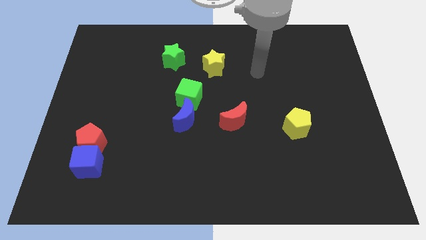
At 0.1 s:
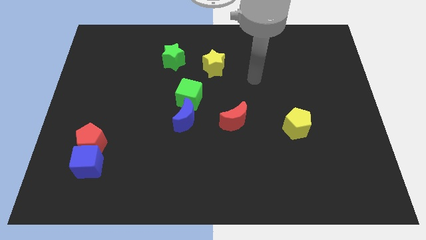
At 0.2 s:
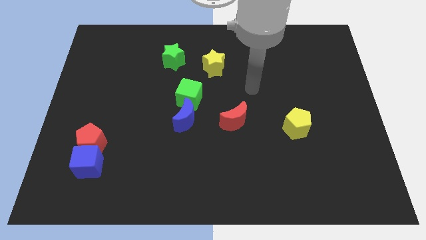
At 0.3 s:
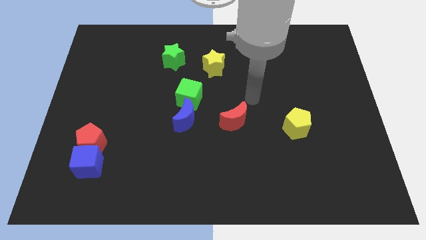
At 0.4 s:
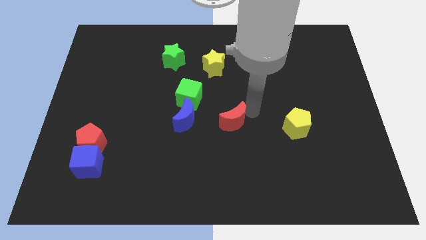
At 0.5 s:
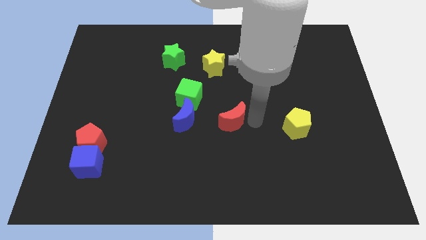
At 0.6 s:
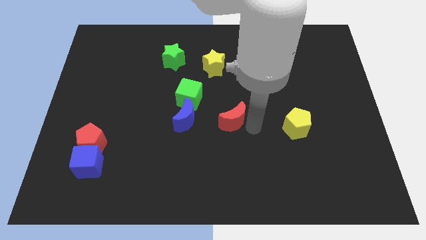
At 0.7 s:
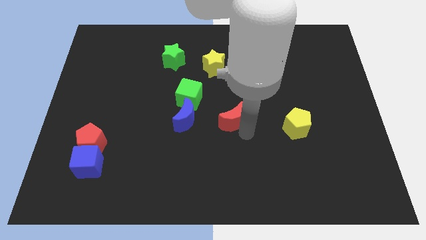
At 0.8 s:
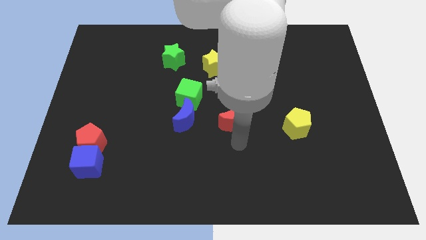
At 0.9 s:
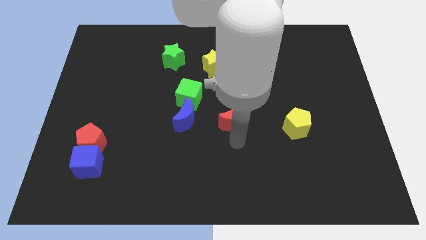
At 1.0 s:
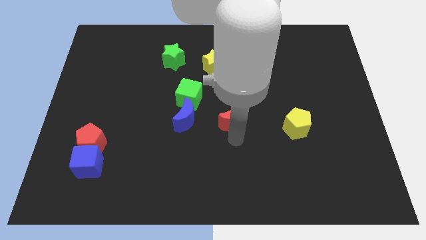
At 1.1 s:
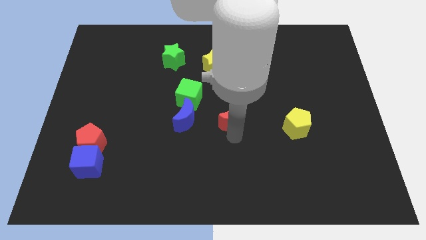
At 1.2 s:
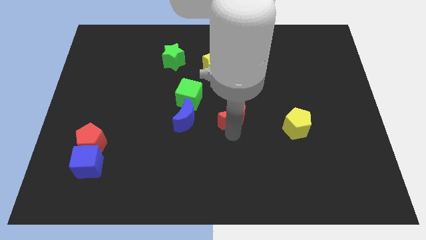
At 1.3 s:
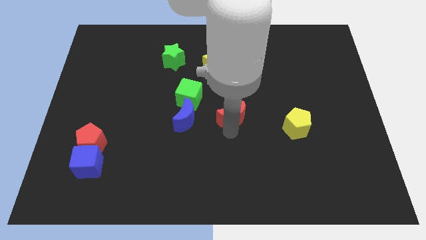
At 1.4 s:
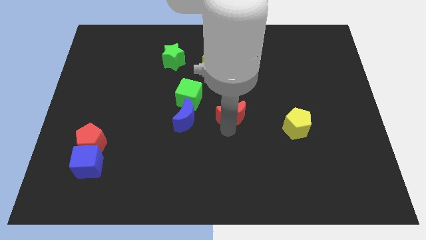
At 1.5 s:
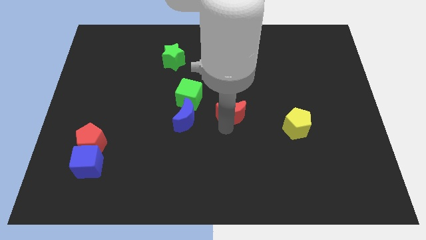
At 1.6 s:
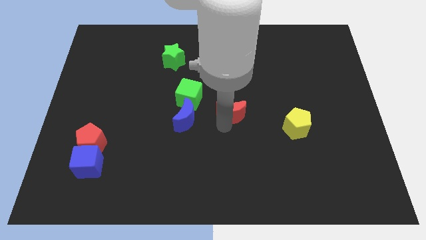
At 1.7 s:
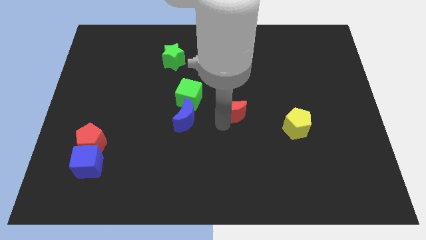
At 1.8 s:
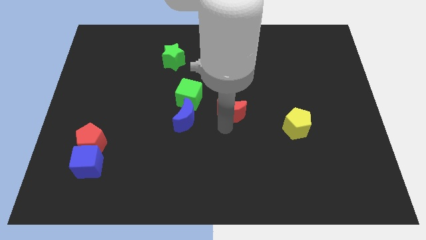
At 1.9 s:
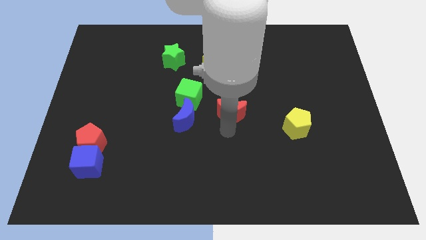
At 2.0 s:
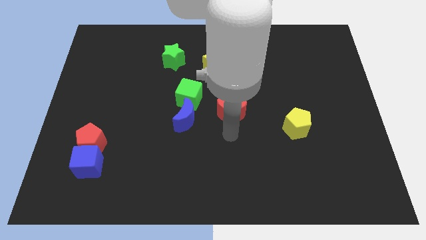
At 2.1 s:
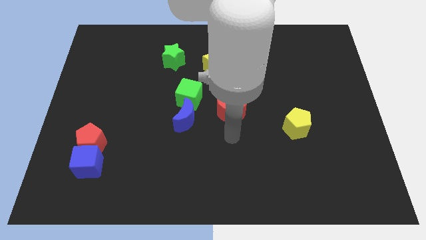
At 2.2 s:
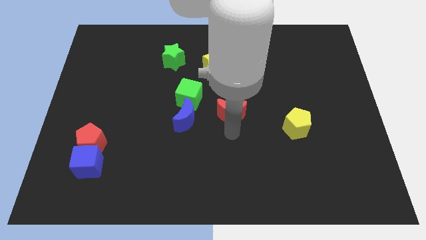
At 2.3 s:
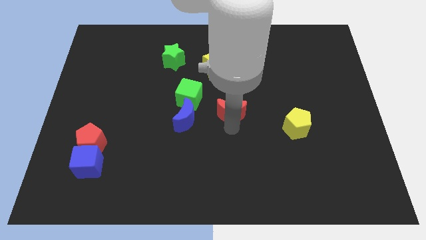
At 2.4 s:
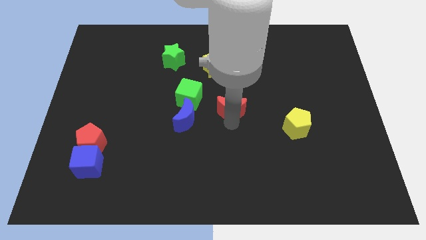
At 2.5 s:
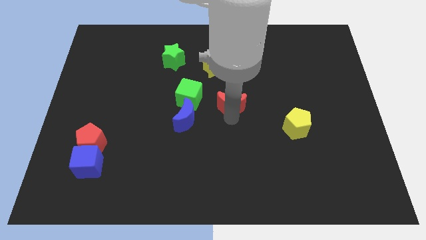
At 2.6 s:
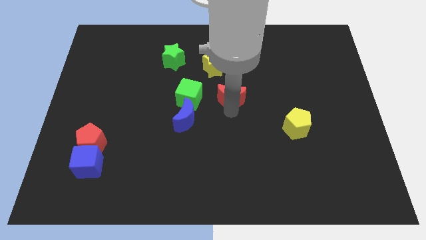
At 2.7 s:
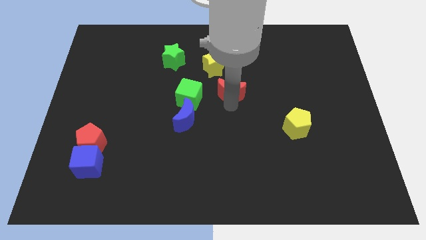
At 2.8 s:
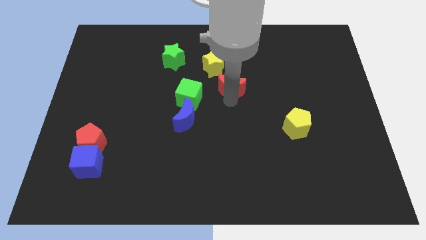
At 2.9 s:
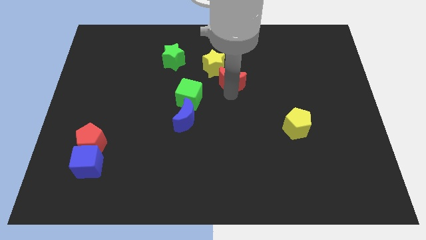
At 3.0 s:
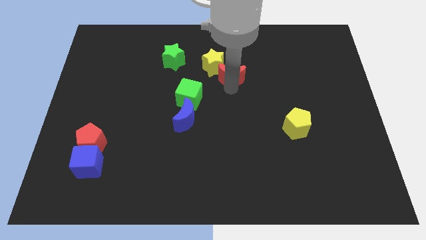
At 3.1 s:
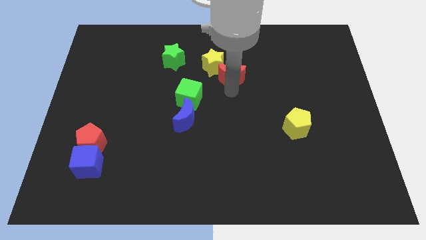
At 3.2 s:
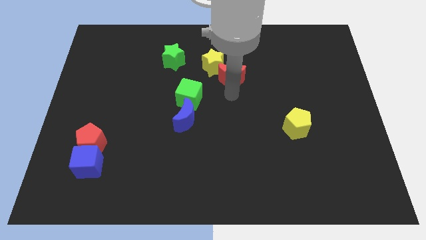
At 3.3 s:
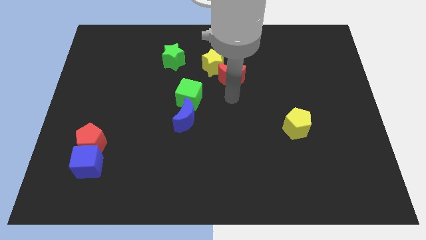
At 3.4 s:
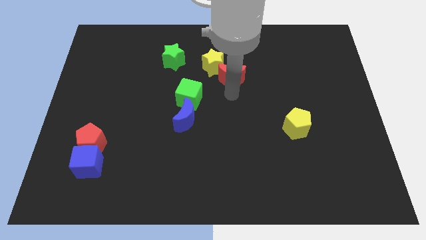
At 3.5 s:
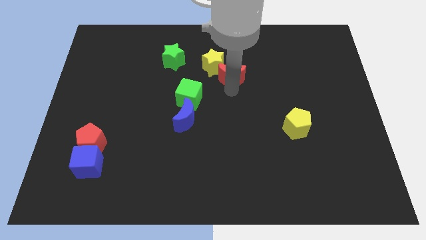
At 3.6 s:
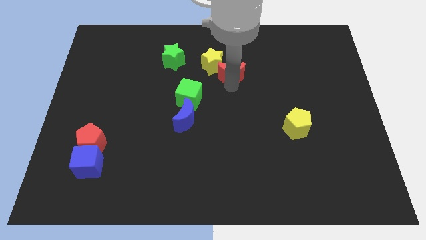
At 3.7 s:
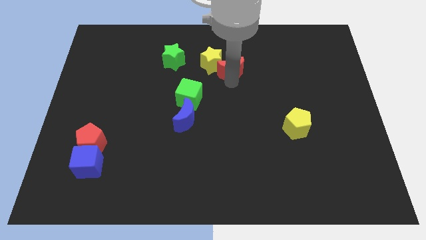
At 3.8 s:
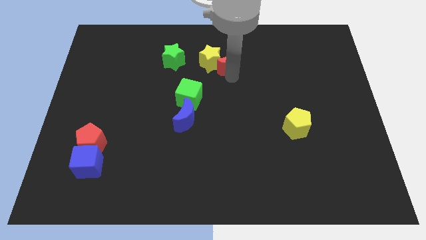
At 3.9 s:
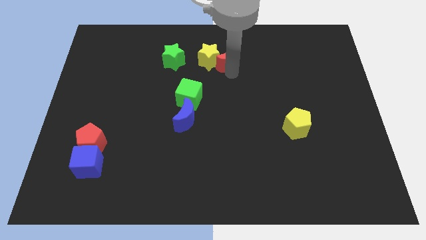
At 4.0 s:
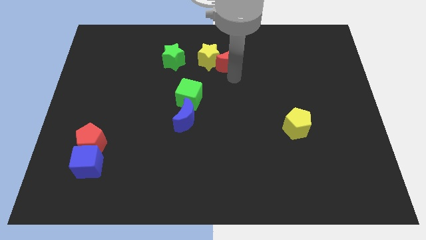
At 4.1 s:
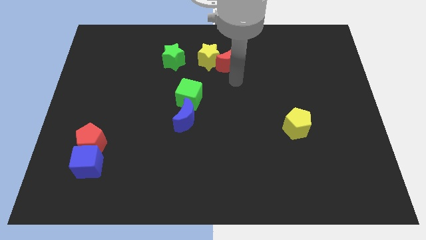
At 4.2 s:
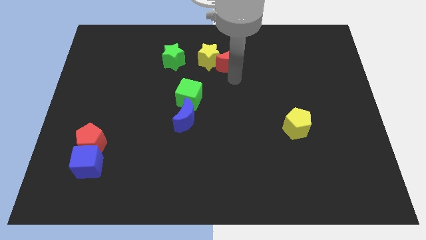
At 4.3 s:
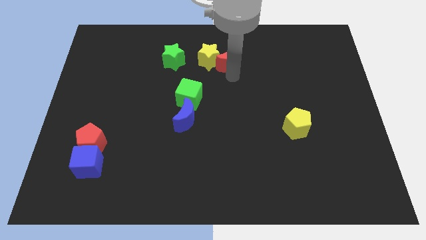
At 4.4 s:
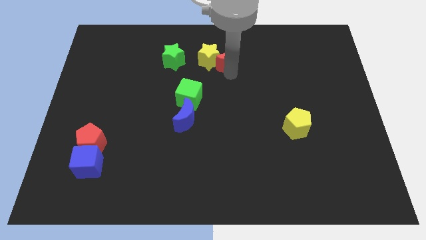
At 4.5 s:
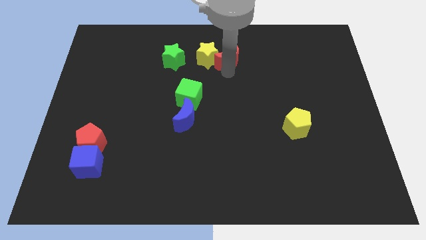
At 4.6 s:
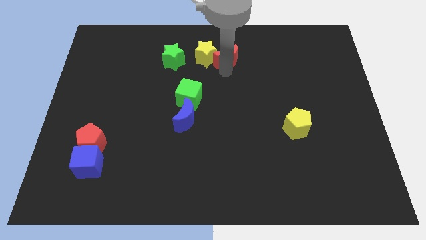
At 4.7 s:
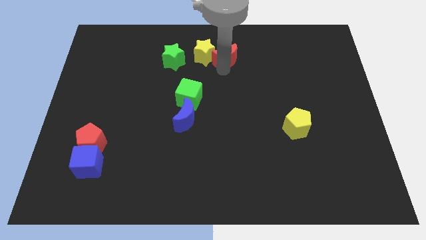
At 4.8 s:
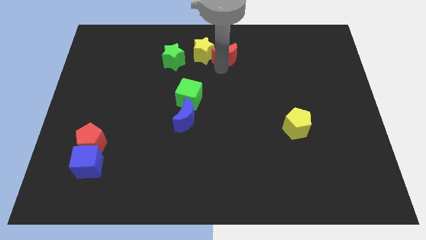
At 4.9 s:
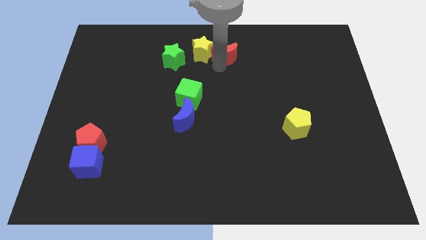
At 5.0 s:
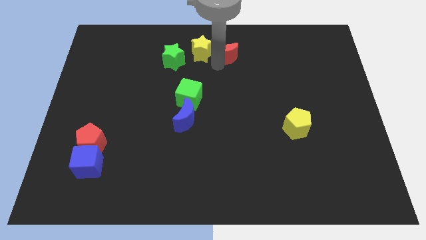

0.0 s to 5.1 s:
push the red moon to the towards your base
